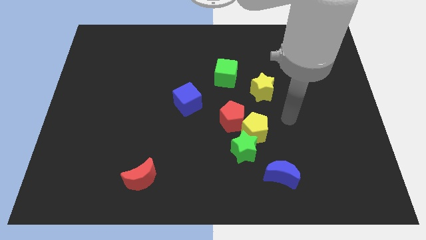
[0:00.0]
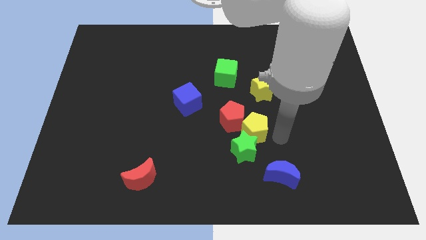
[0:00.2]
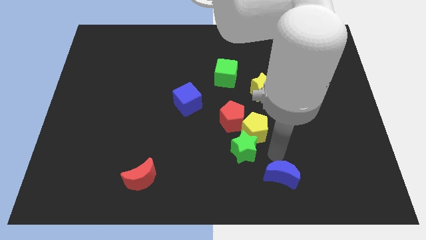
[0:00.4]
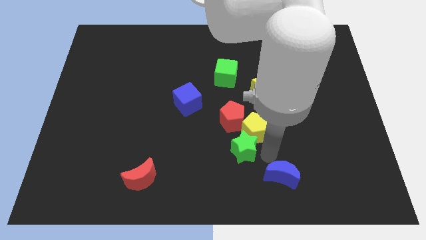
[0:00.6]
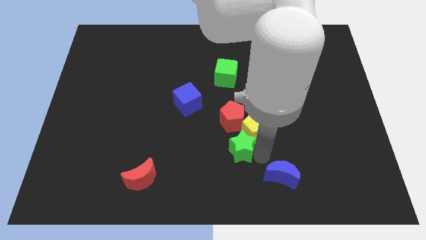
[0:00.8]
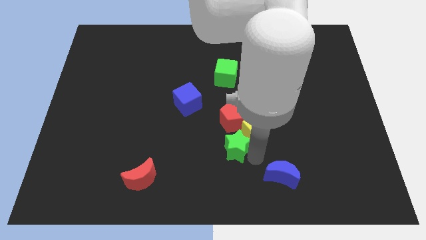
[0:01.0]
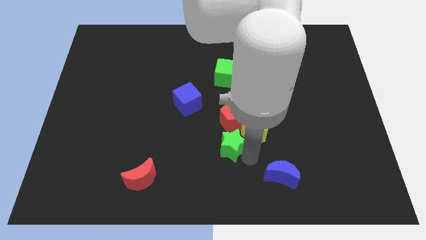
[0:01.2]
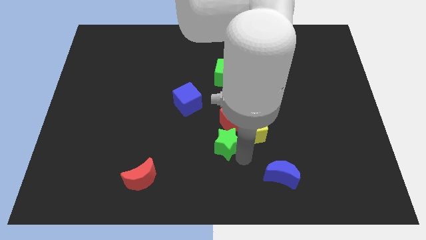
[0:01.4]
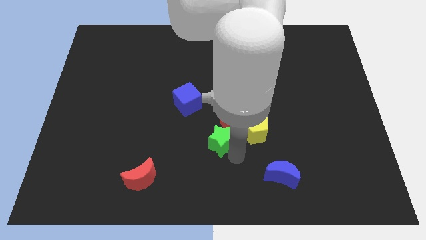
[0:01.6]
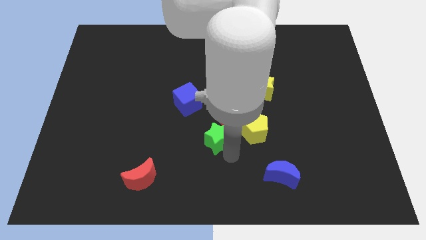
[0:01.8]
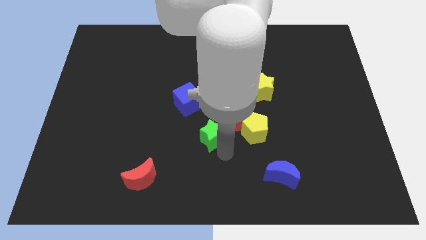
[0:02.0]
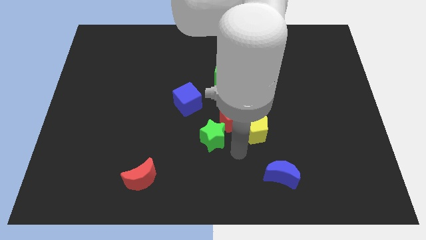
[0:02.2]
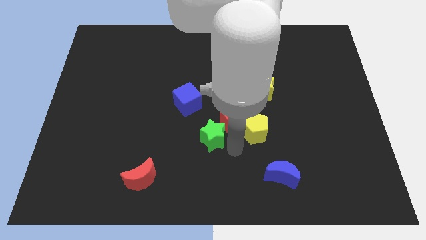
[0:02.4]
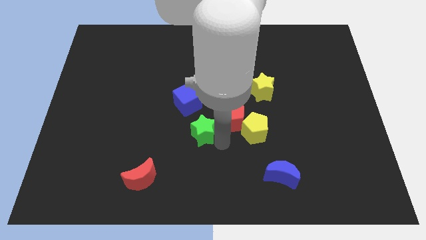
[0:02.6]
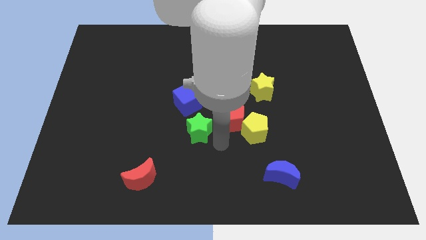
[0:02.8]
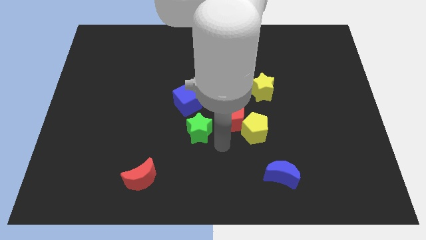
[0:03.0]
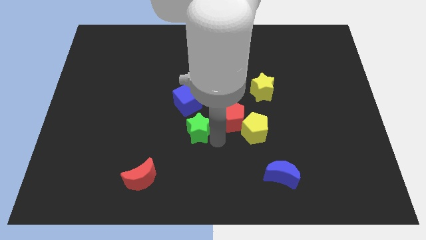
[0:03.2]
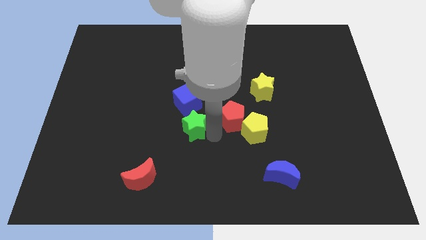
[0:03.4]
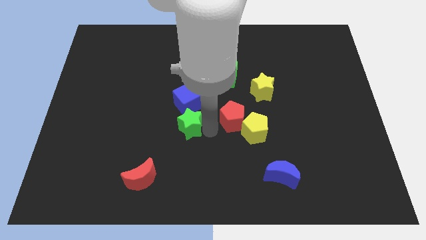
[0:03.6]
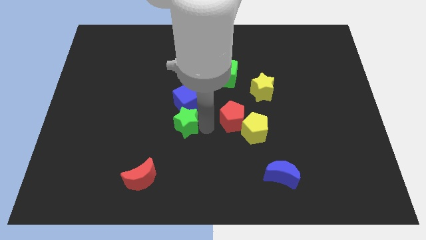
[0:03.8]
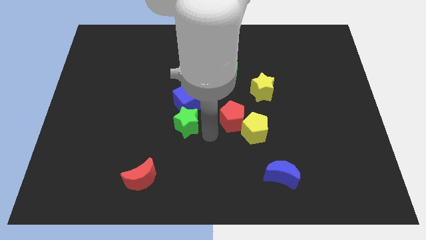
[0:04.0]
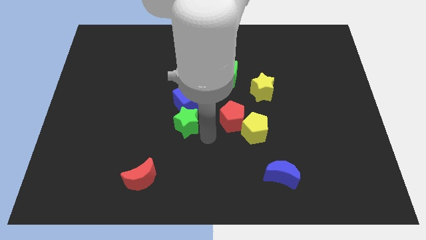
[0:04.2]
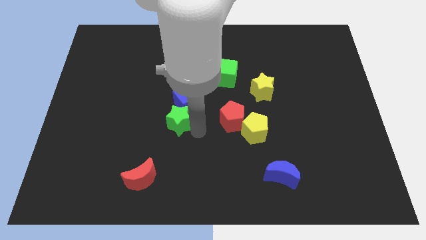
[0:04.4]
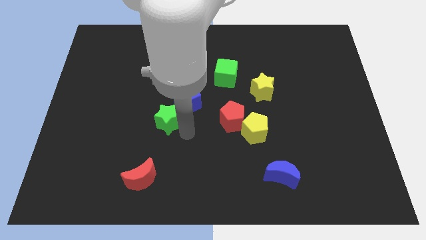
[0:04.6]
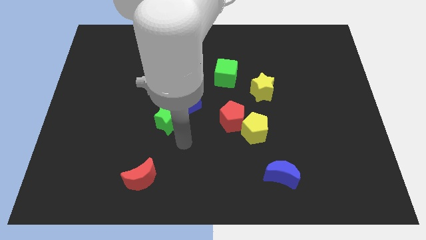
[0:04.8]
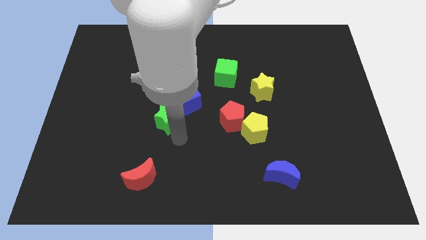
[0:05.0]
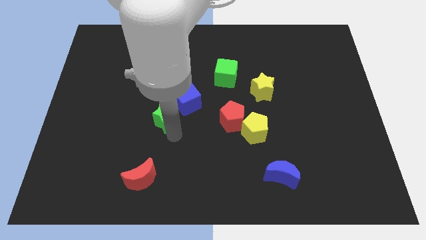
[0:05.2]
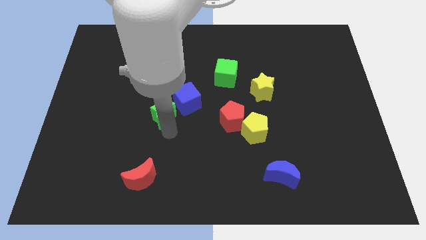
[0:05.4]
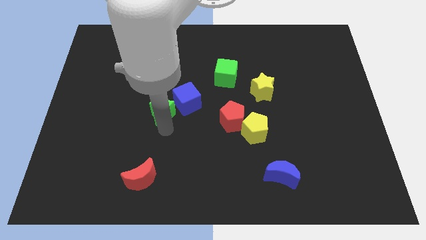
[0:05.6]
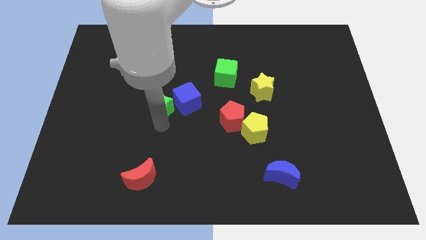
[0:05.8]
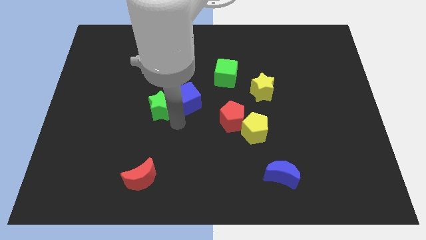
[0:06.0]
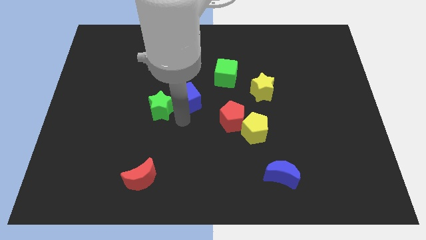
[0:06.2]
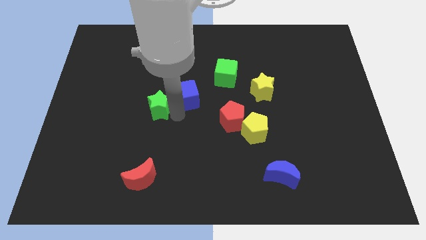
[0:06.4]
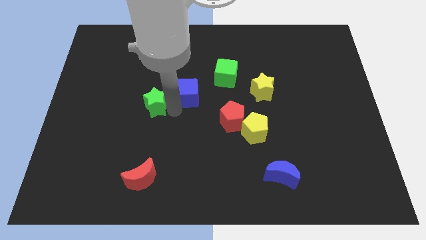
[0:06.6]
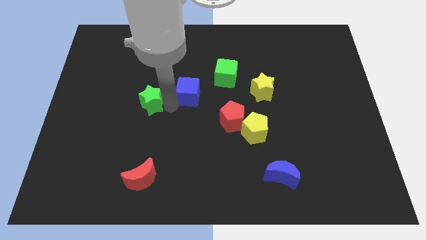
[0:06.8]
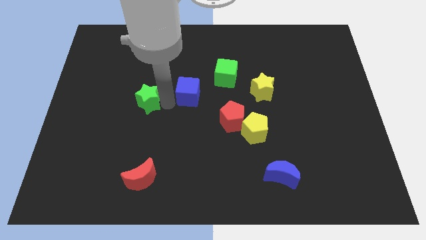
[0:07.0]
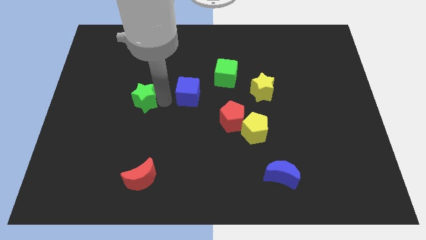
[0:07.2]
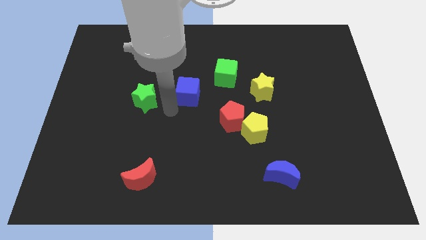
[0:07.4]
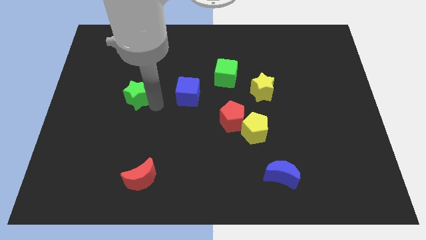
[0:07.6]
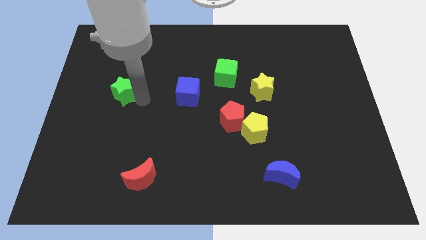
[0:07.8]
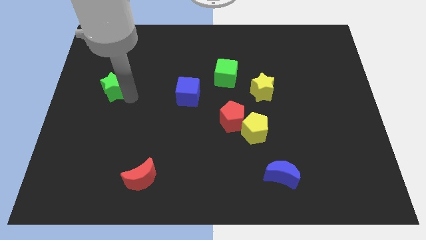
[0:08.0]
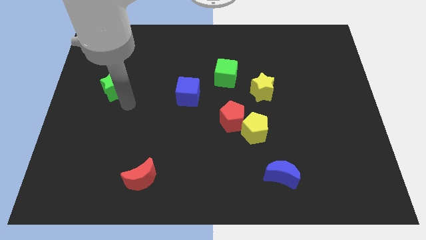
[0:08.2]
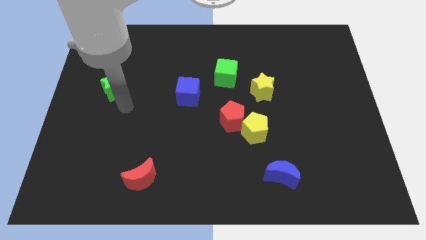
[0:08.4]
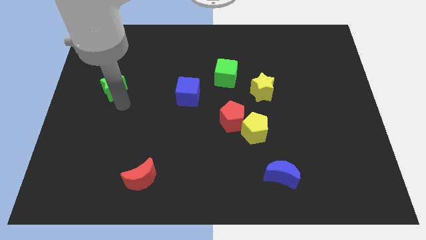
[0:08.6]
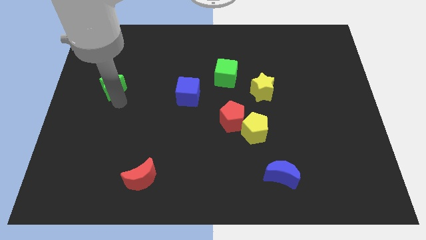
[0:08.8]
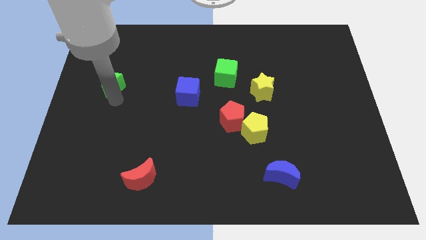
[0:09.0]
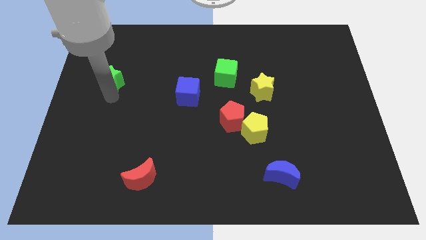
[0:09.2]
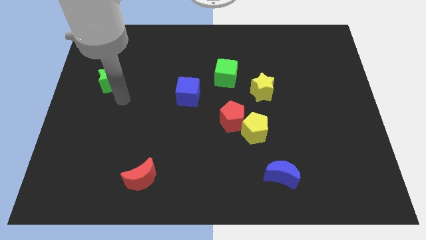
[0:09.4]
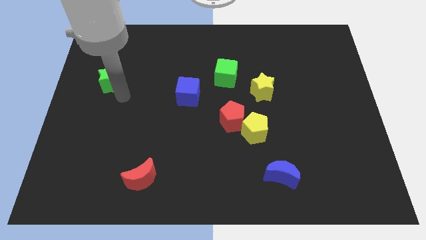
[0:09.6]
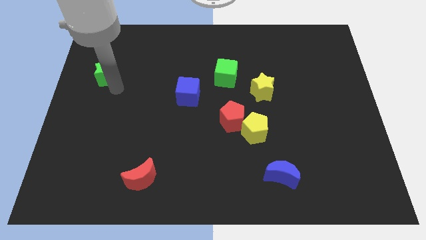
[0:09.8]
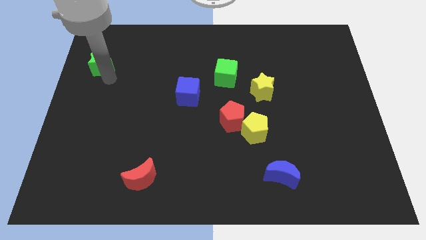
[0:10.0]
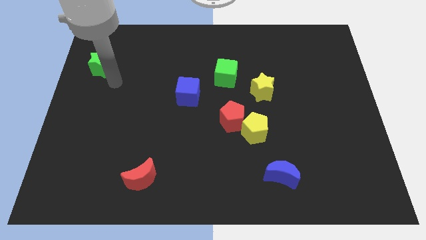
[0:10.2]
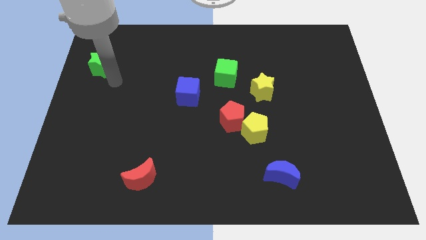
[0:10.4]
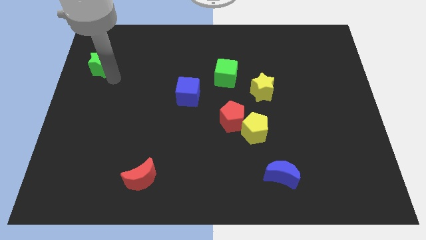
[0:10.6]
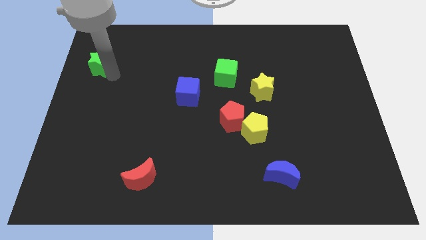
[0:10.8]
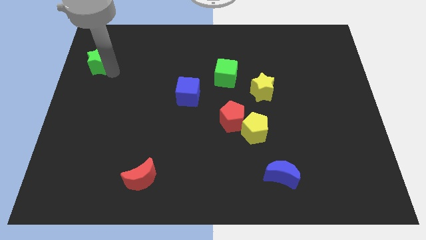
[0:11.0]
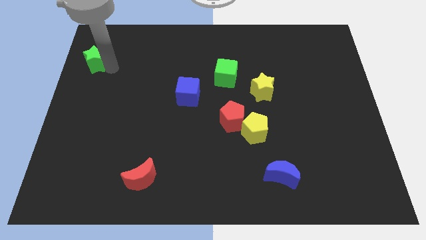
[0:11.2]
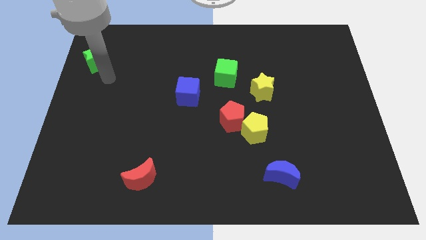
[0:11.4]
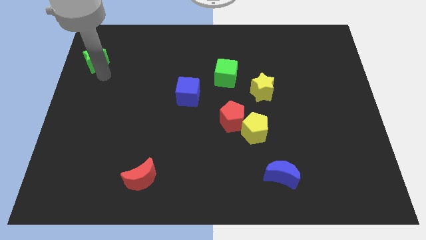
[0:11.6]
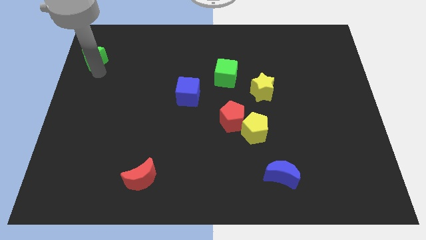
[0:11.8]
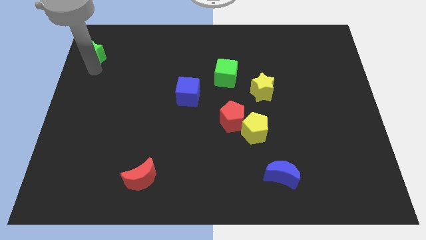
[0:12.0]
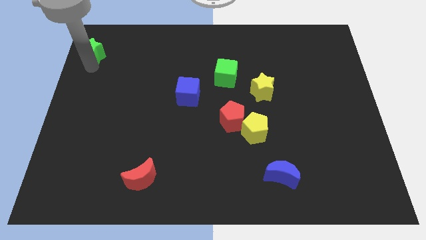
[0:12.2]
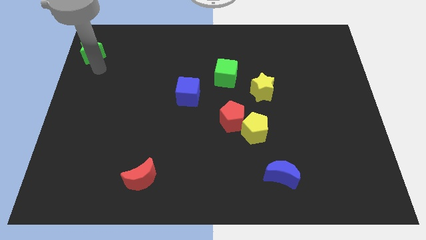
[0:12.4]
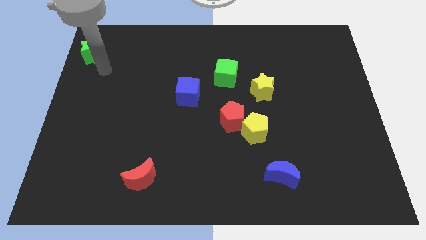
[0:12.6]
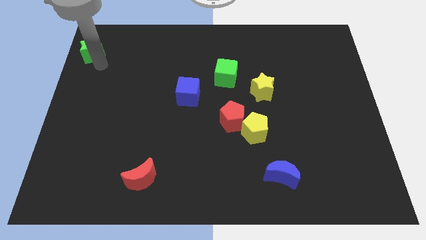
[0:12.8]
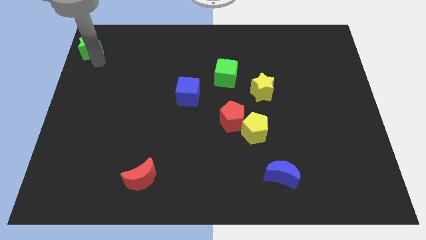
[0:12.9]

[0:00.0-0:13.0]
move the green star to the top left

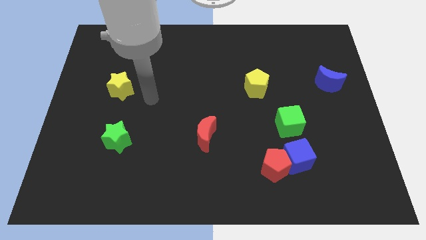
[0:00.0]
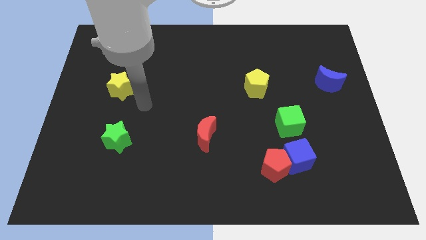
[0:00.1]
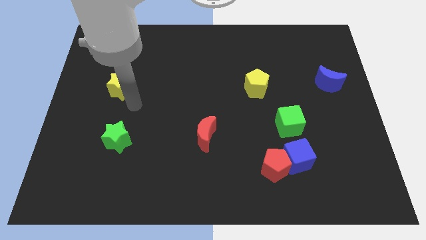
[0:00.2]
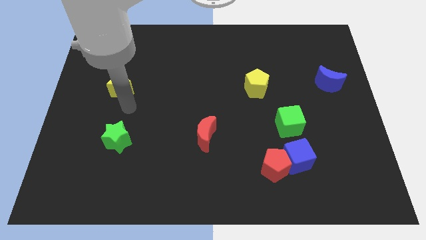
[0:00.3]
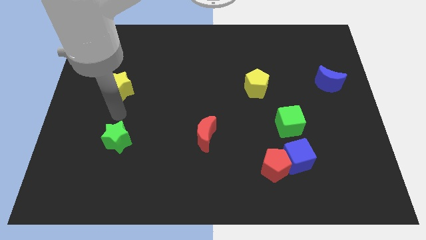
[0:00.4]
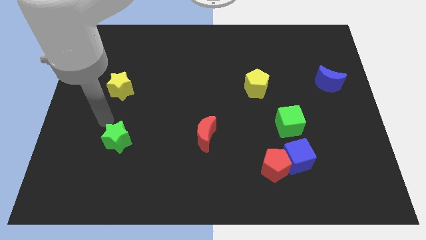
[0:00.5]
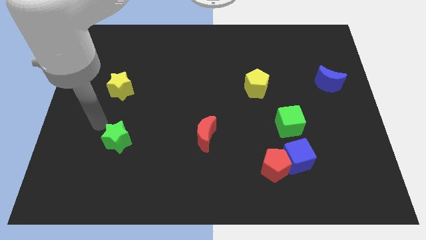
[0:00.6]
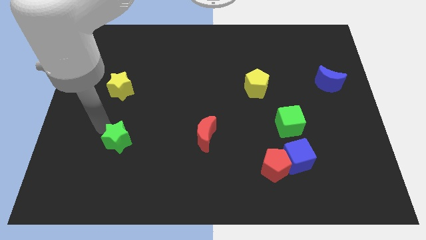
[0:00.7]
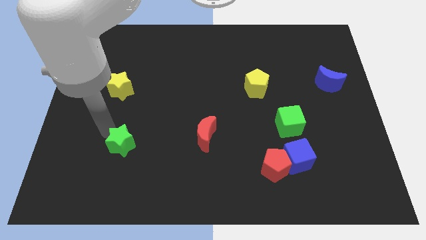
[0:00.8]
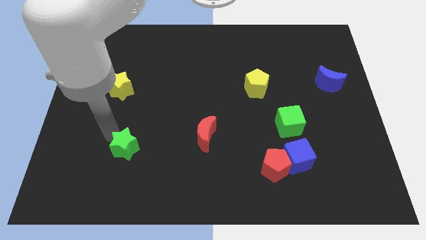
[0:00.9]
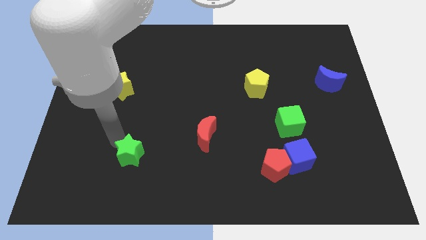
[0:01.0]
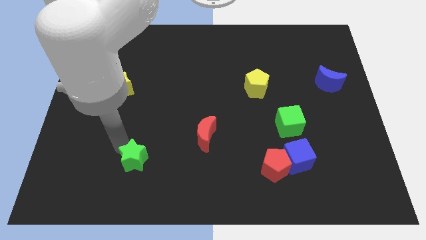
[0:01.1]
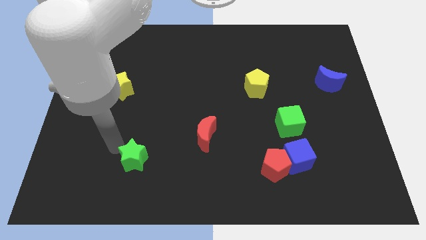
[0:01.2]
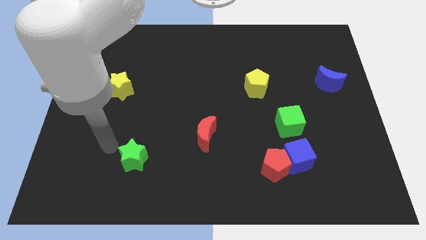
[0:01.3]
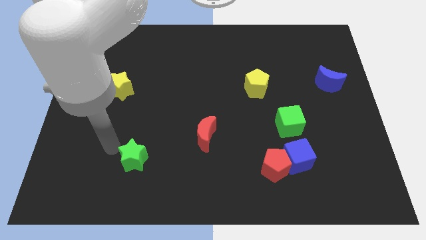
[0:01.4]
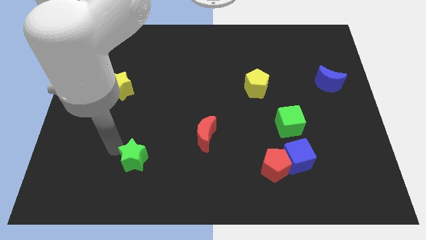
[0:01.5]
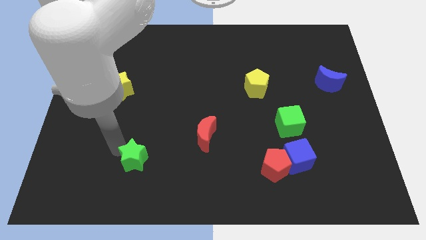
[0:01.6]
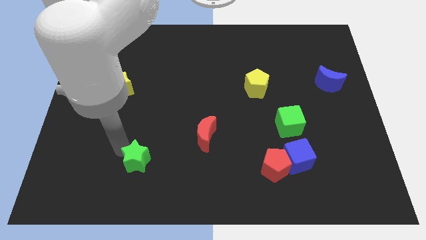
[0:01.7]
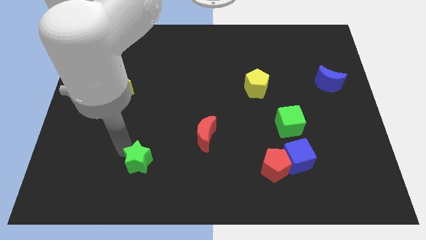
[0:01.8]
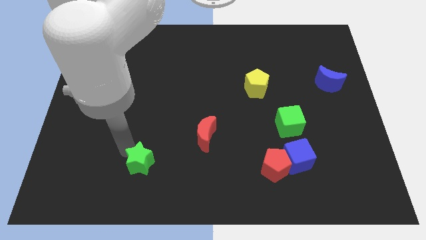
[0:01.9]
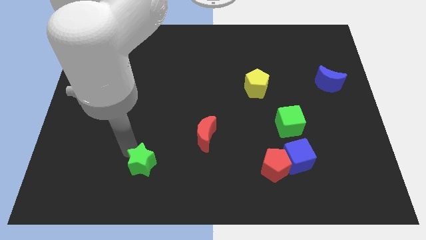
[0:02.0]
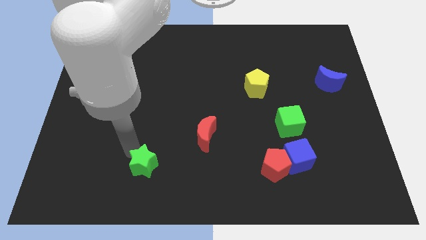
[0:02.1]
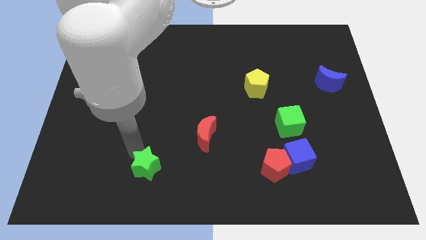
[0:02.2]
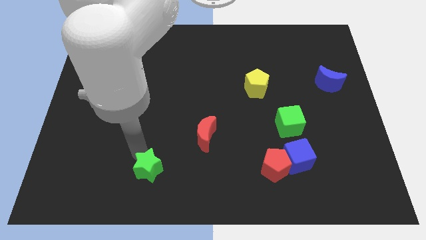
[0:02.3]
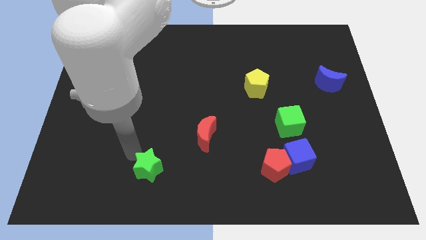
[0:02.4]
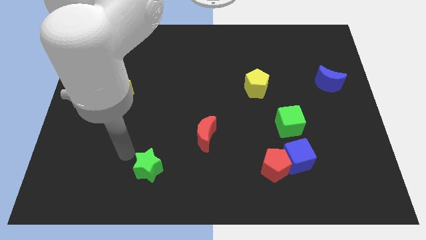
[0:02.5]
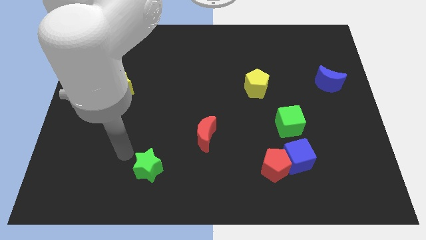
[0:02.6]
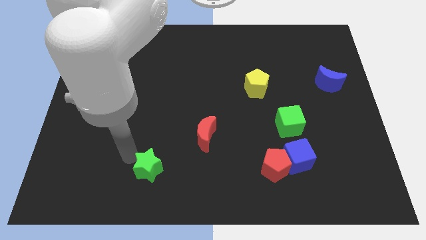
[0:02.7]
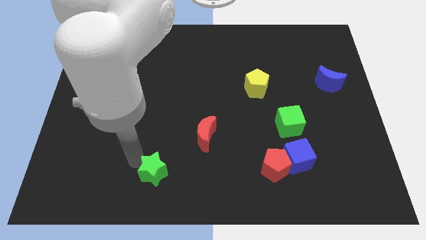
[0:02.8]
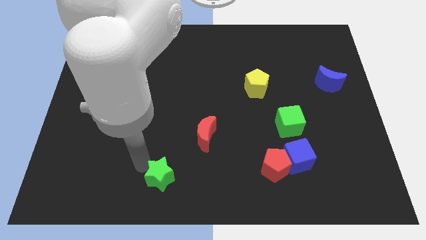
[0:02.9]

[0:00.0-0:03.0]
move the green star to the bottom
